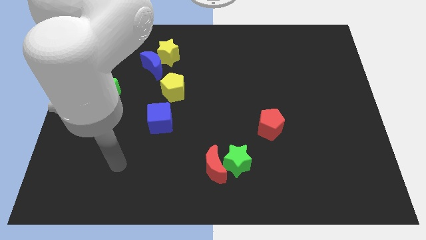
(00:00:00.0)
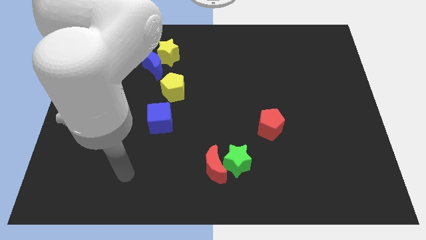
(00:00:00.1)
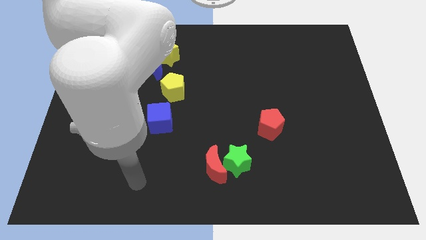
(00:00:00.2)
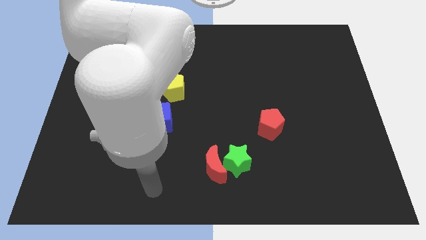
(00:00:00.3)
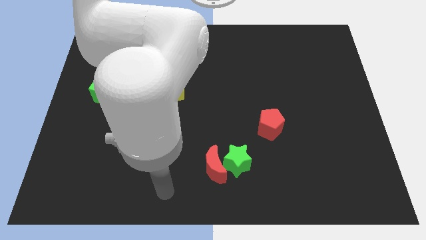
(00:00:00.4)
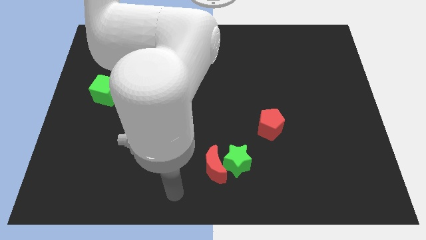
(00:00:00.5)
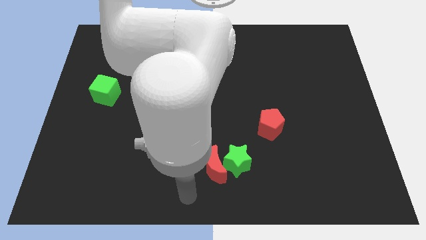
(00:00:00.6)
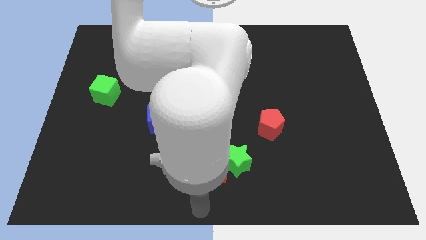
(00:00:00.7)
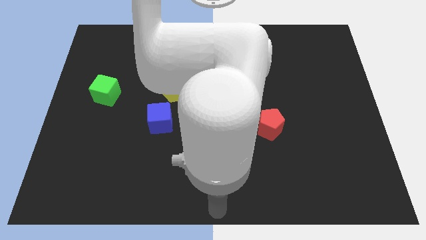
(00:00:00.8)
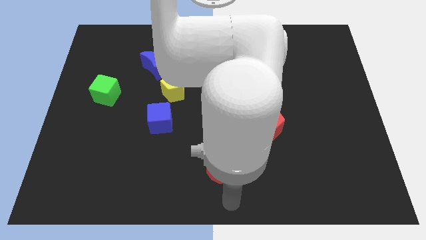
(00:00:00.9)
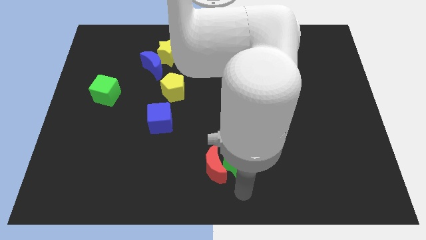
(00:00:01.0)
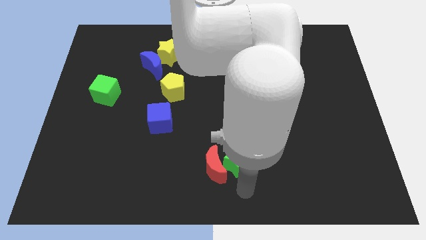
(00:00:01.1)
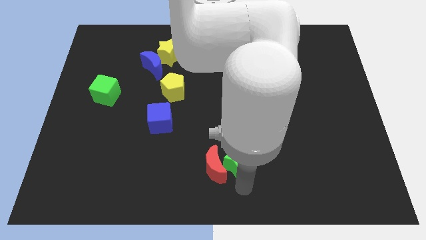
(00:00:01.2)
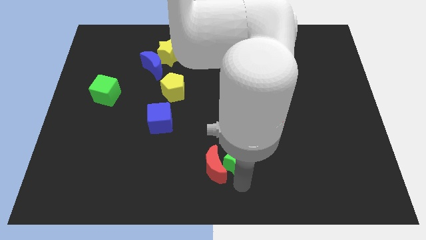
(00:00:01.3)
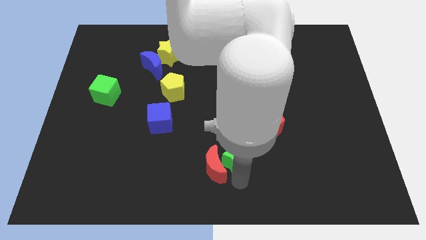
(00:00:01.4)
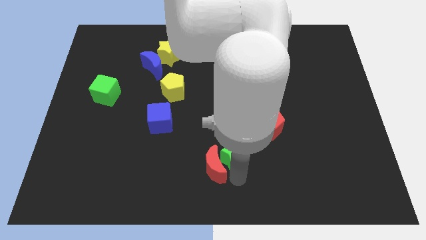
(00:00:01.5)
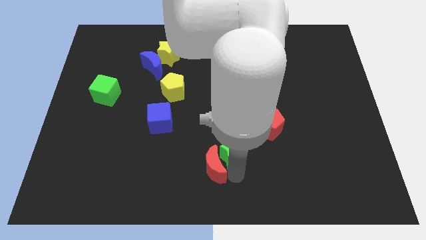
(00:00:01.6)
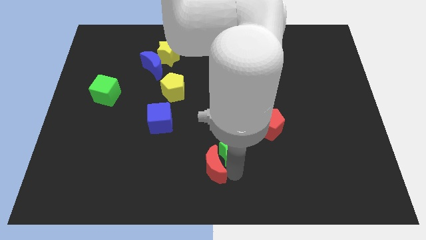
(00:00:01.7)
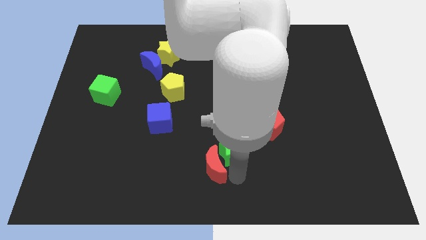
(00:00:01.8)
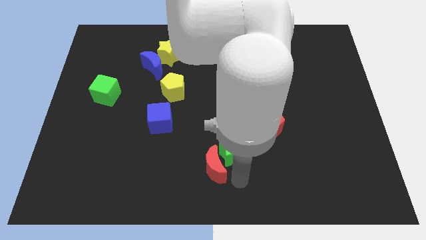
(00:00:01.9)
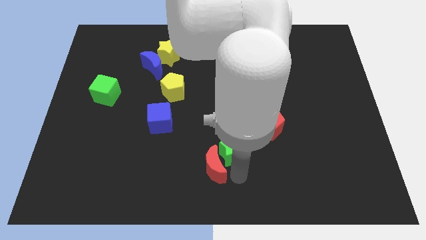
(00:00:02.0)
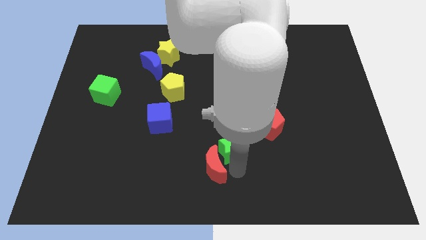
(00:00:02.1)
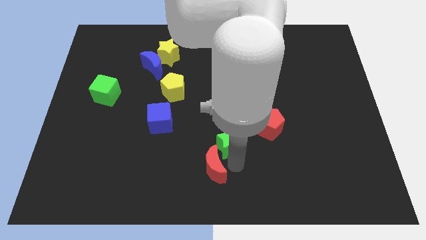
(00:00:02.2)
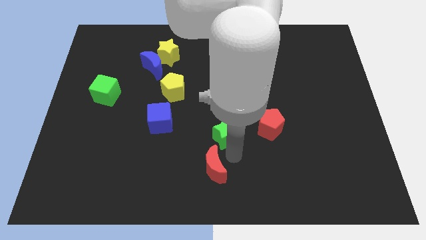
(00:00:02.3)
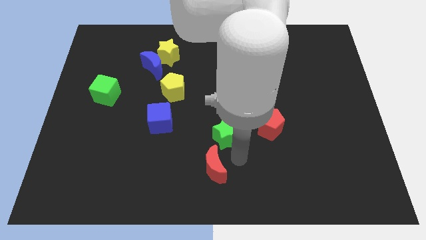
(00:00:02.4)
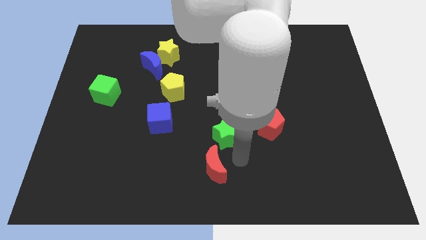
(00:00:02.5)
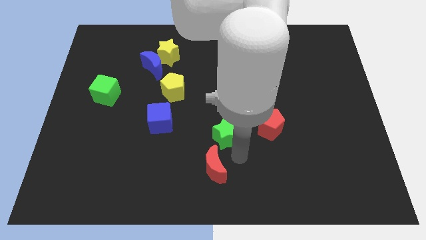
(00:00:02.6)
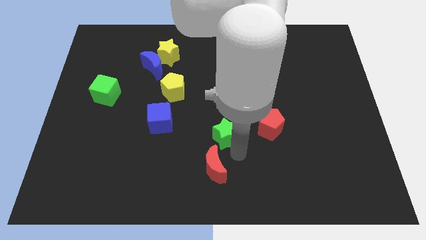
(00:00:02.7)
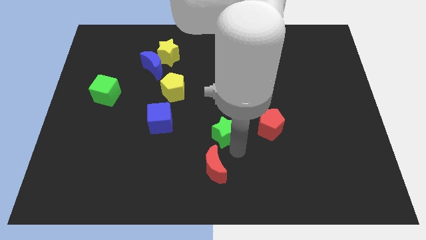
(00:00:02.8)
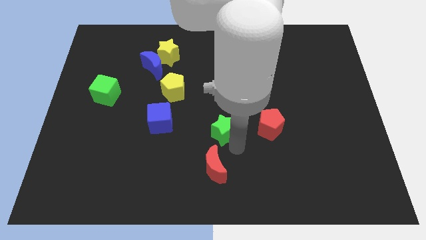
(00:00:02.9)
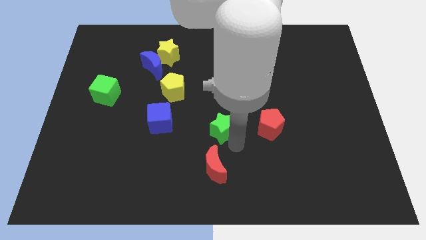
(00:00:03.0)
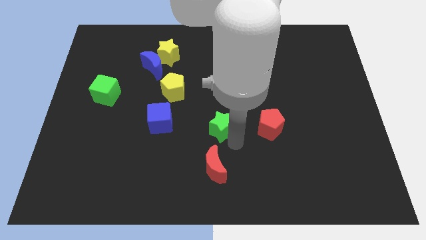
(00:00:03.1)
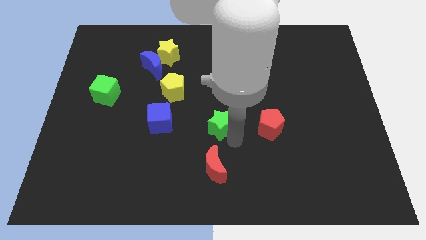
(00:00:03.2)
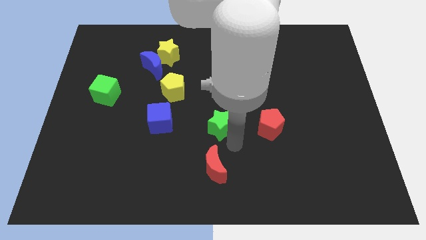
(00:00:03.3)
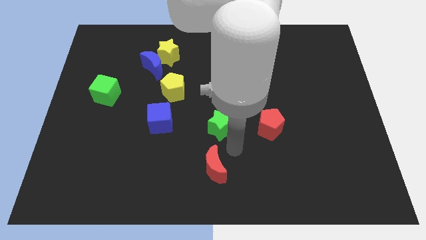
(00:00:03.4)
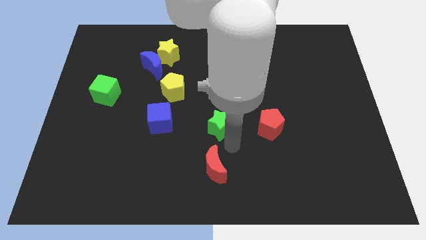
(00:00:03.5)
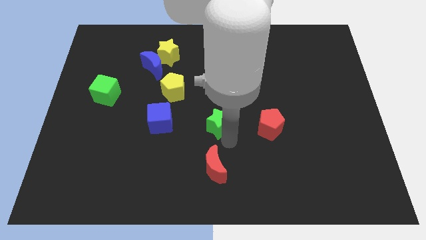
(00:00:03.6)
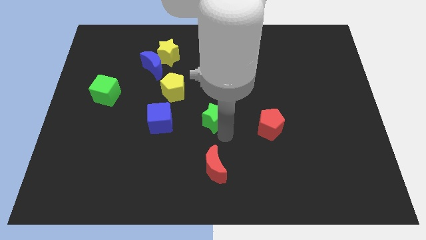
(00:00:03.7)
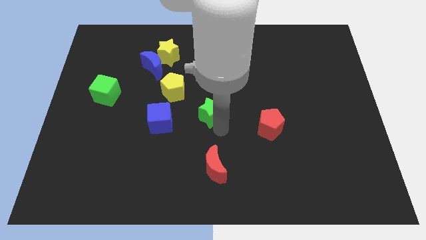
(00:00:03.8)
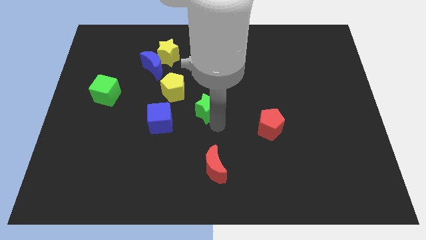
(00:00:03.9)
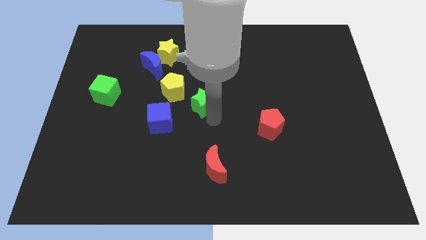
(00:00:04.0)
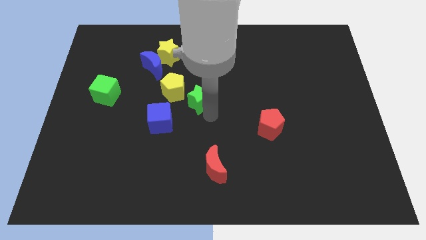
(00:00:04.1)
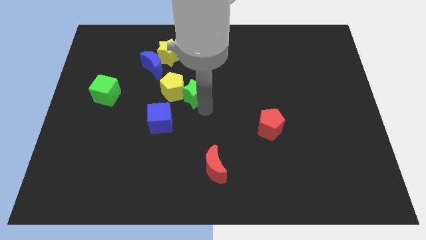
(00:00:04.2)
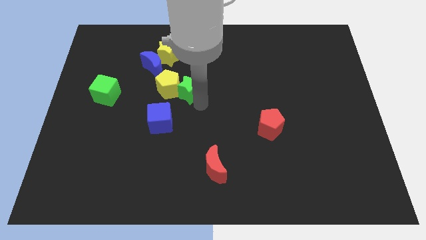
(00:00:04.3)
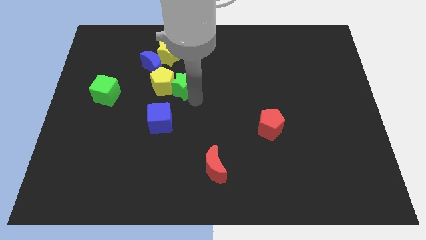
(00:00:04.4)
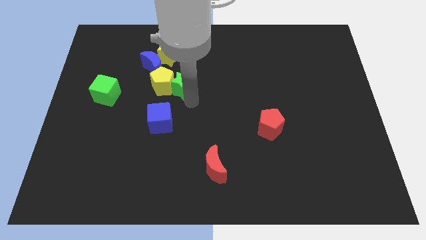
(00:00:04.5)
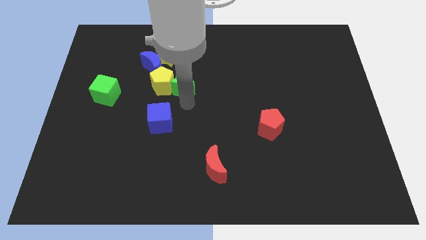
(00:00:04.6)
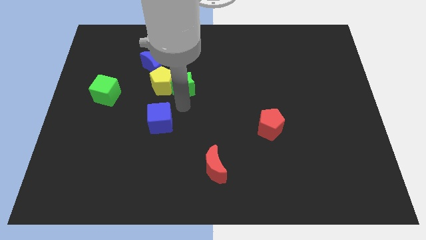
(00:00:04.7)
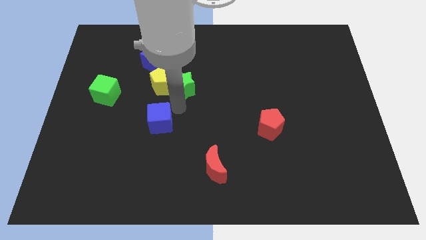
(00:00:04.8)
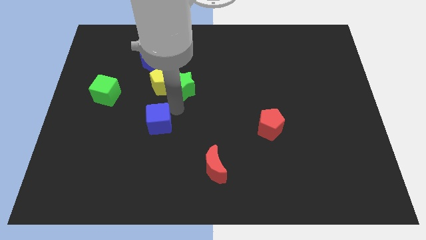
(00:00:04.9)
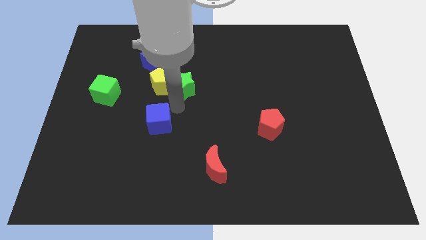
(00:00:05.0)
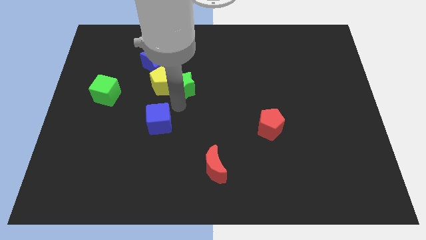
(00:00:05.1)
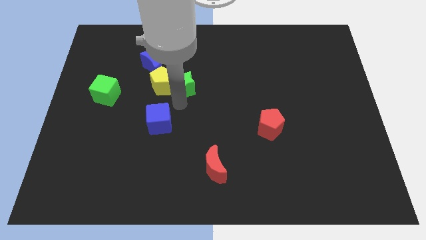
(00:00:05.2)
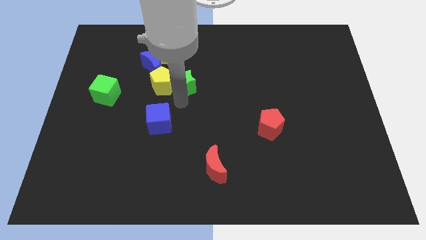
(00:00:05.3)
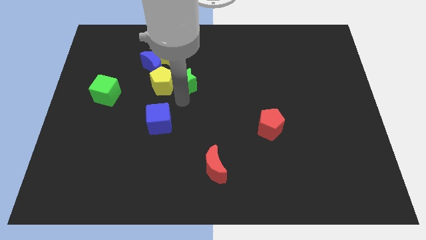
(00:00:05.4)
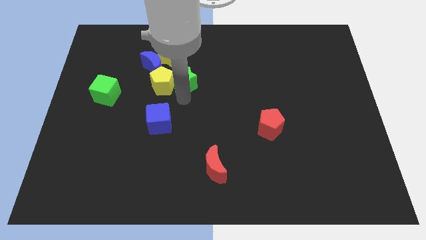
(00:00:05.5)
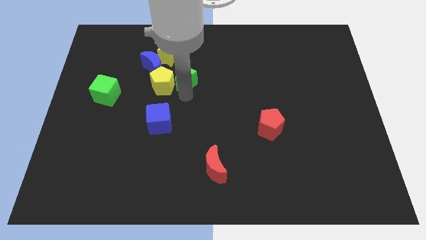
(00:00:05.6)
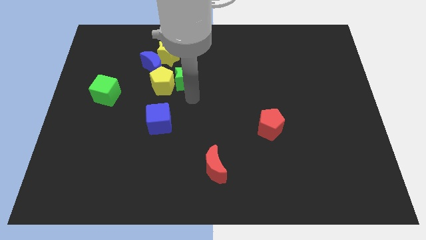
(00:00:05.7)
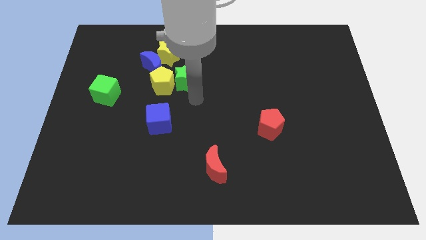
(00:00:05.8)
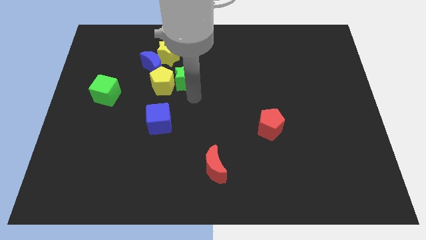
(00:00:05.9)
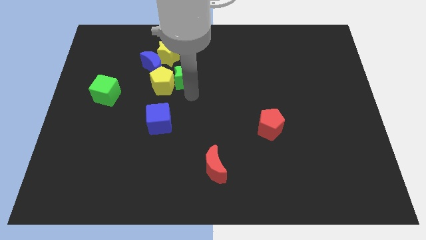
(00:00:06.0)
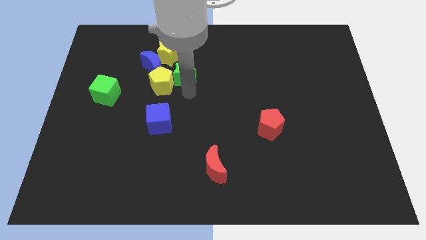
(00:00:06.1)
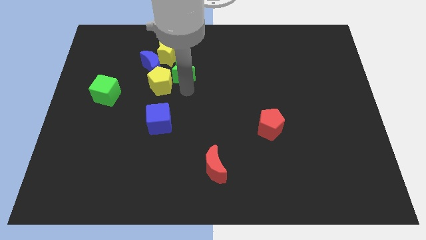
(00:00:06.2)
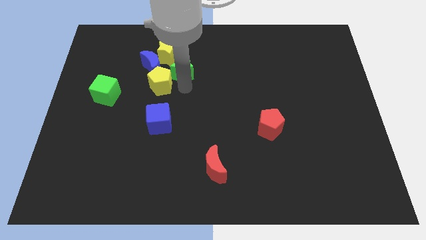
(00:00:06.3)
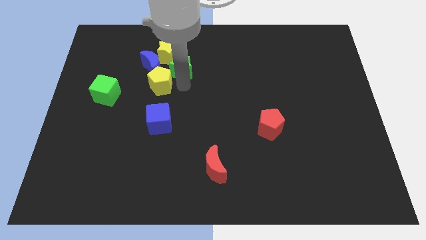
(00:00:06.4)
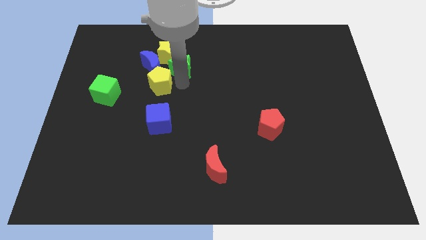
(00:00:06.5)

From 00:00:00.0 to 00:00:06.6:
slide the green star next to the yellow star
